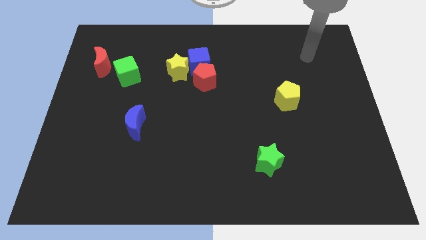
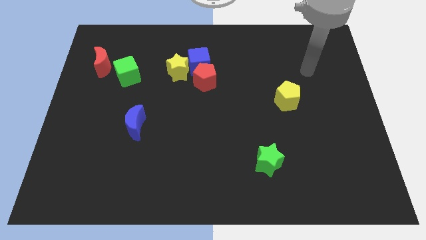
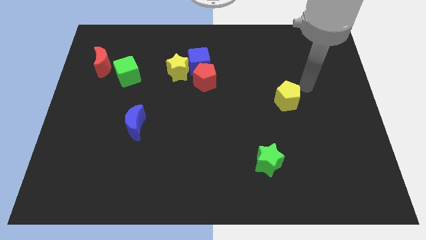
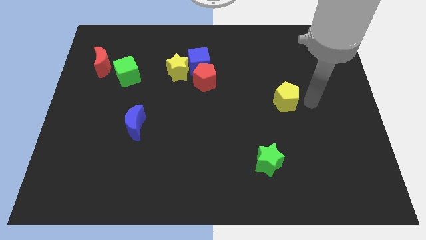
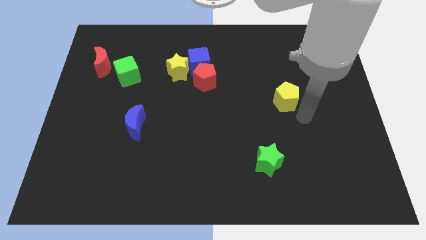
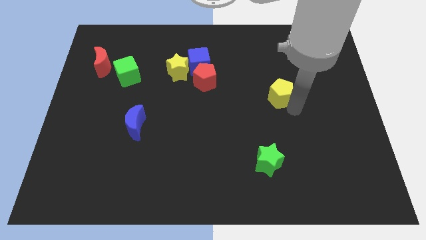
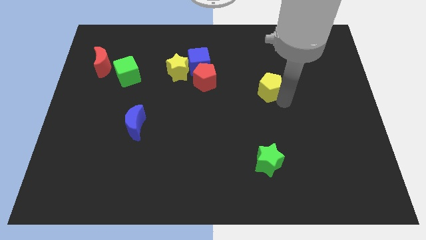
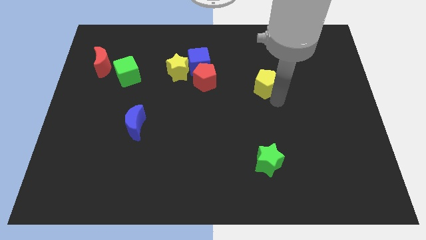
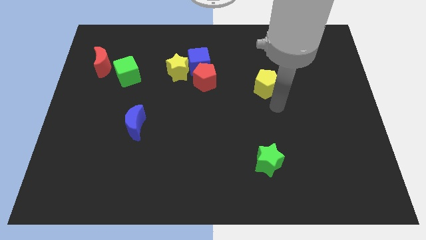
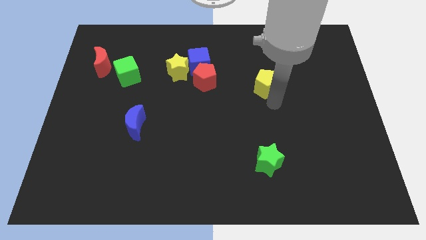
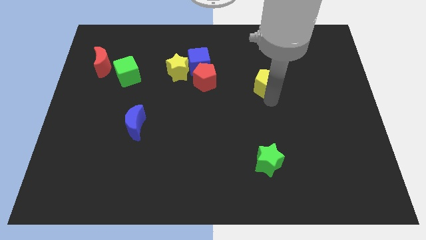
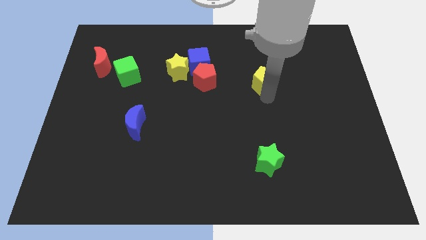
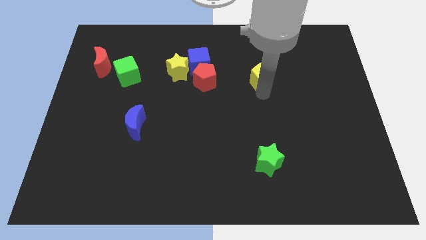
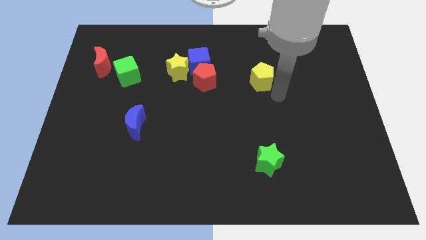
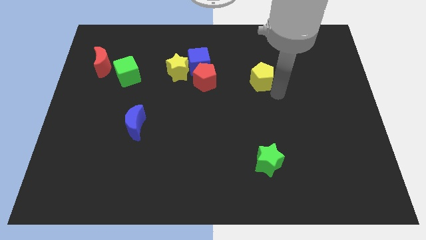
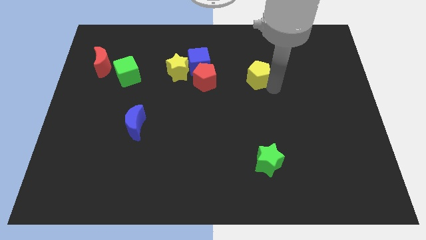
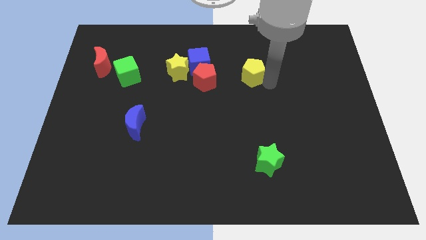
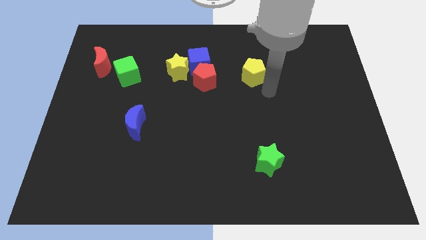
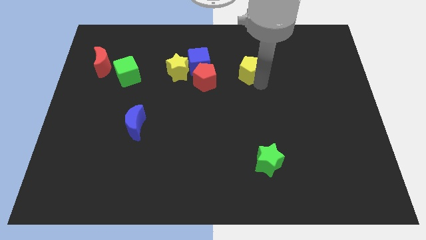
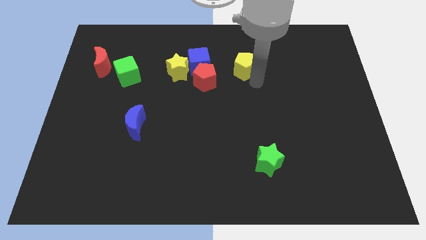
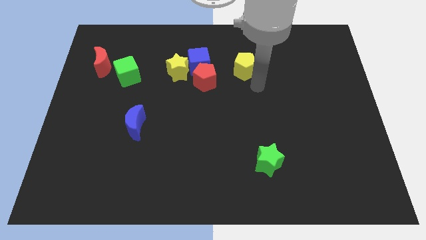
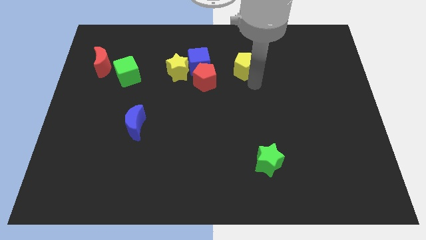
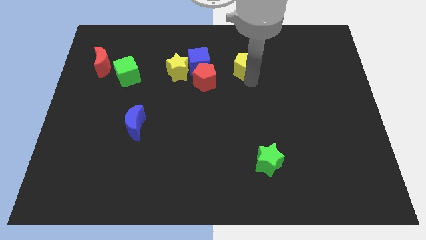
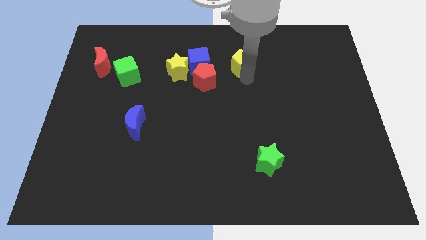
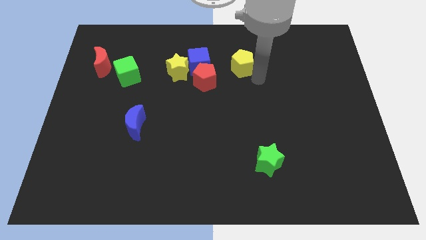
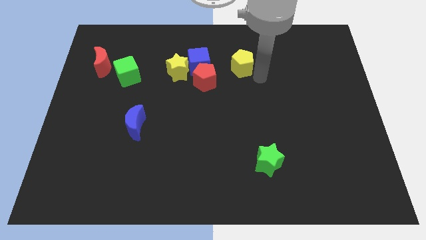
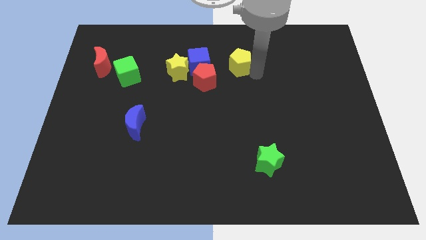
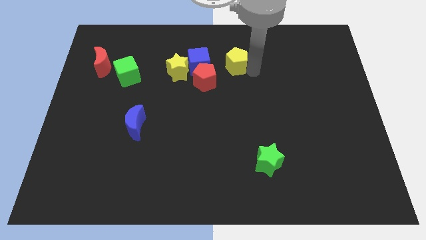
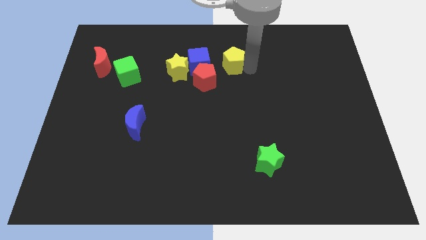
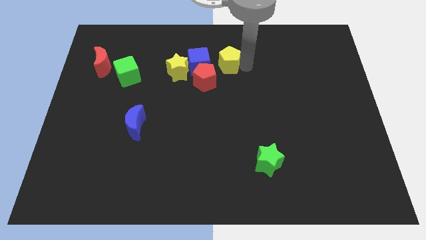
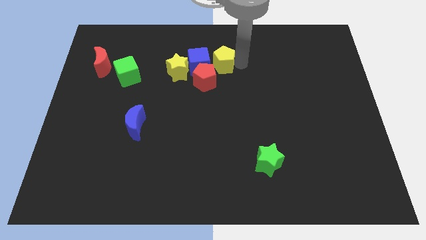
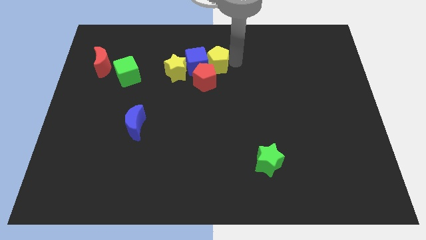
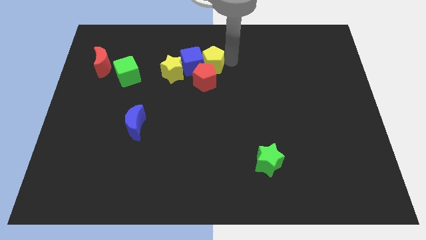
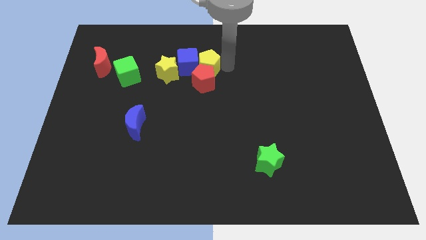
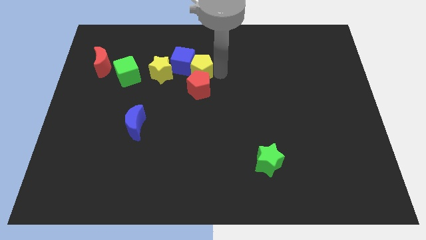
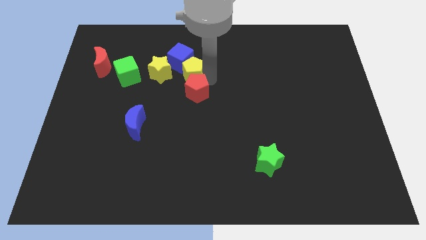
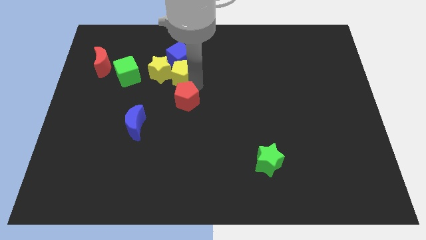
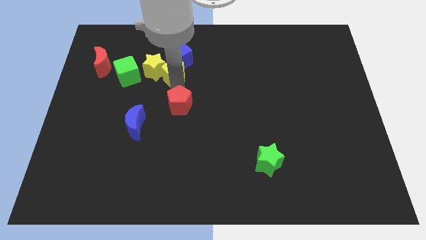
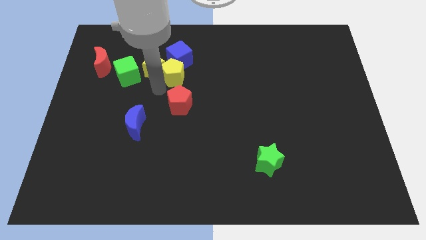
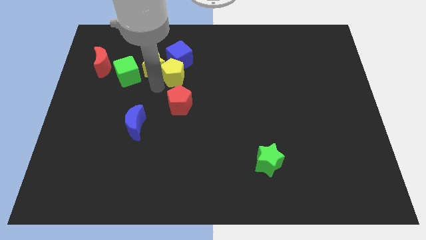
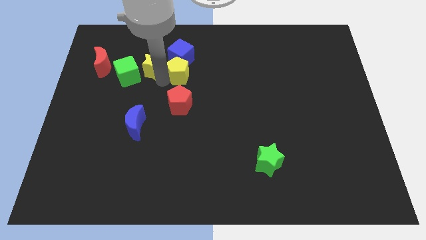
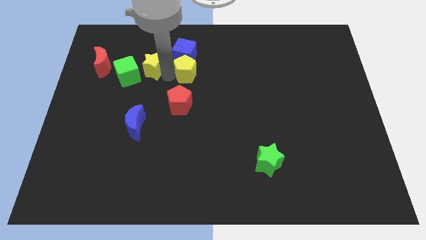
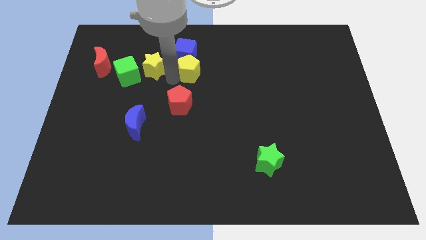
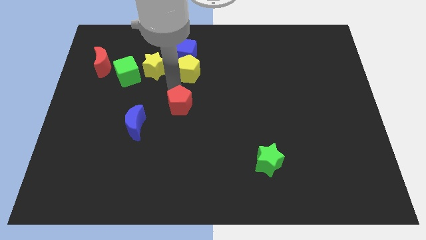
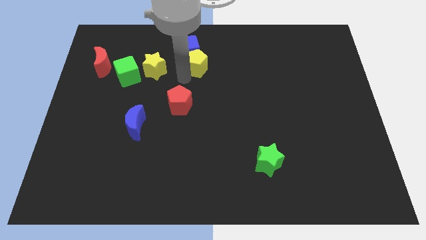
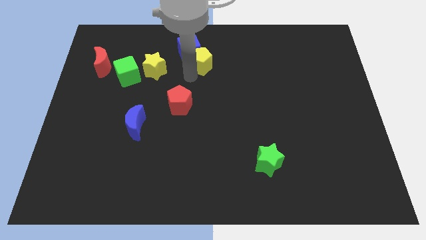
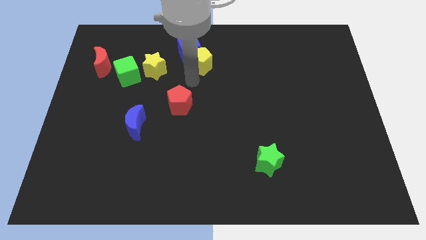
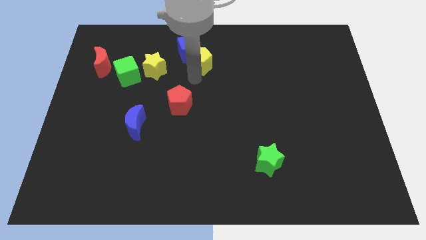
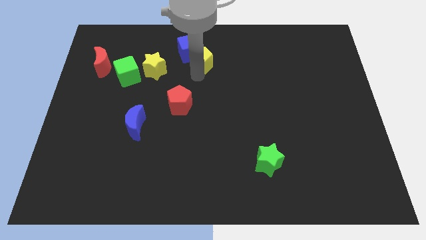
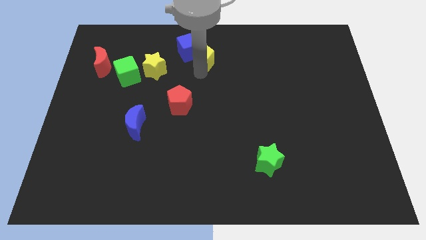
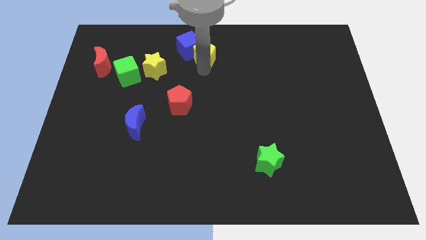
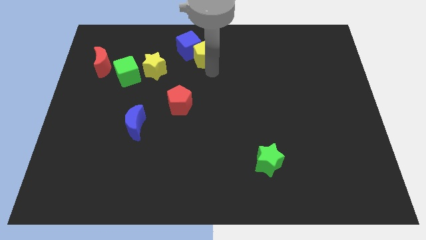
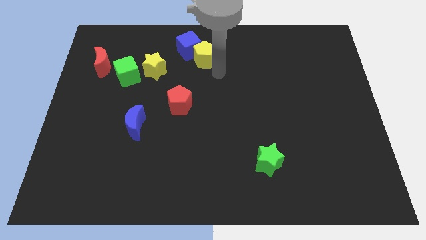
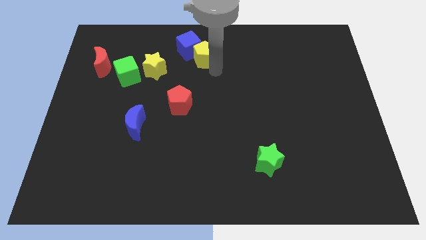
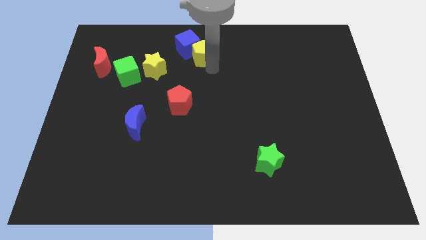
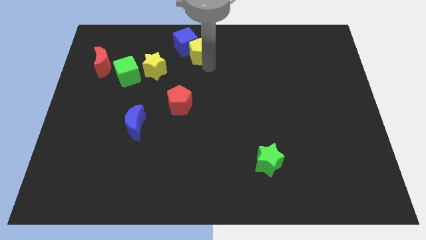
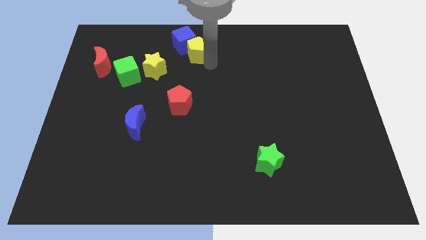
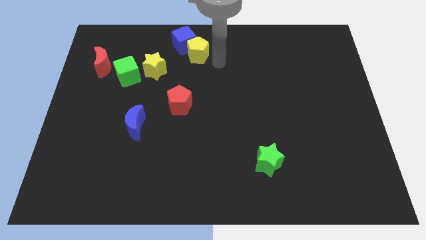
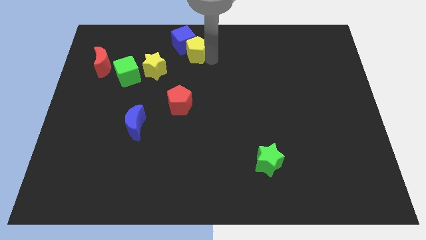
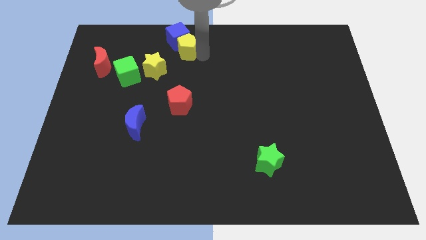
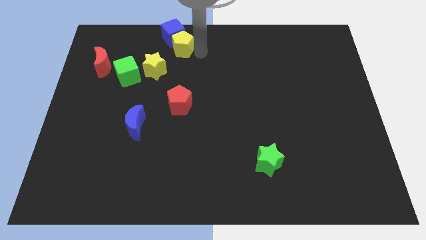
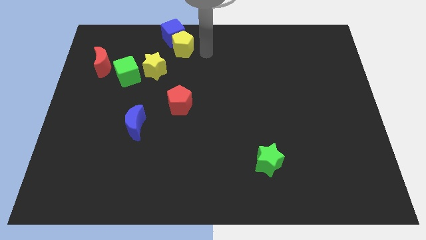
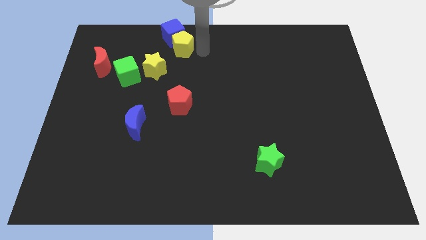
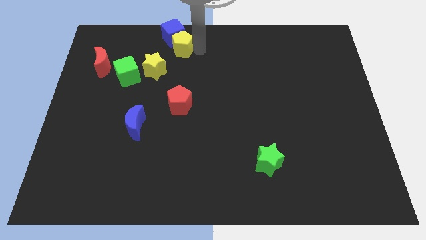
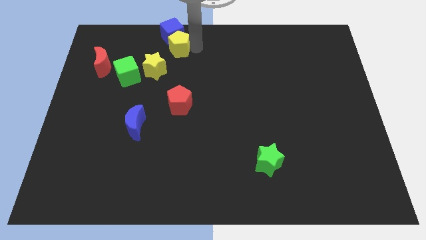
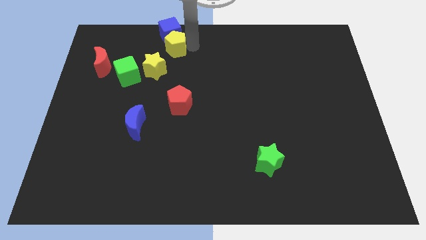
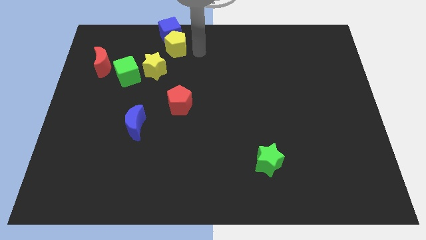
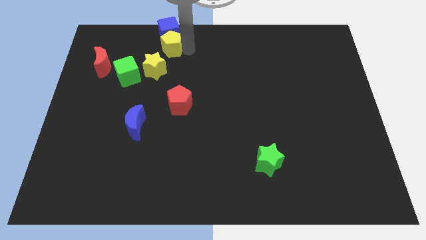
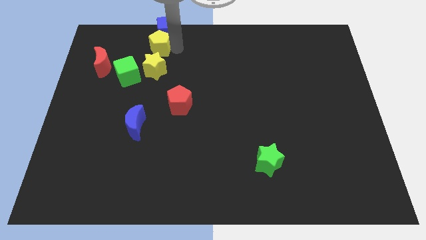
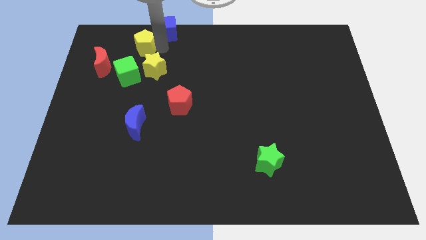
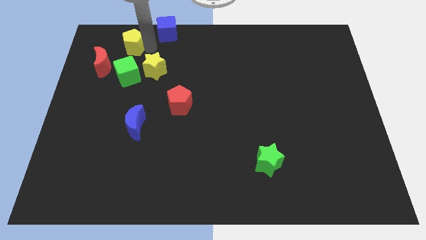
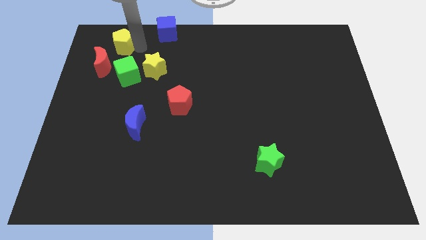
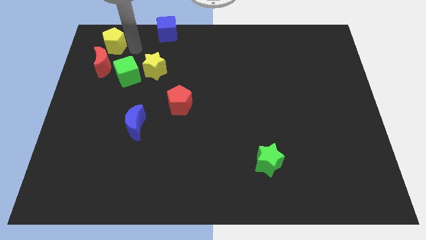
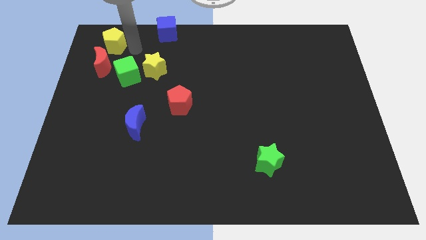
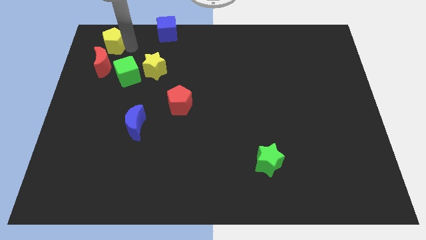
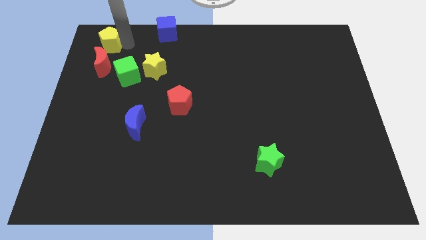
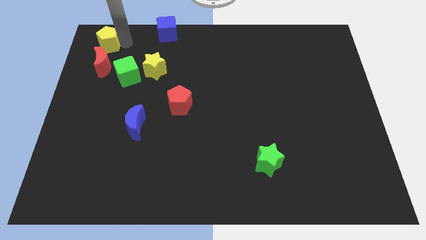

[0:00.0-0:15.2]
slide the yellow pentagon to the upper left corner
